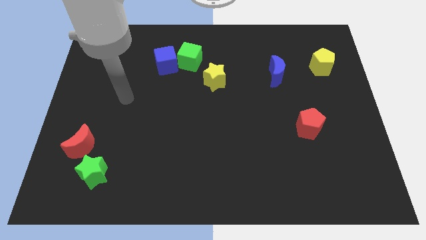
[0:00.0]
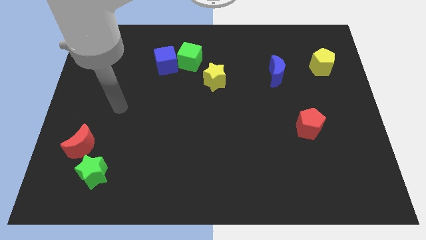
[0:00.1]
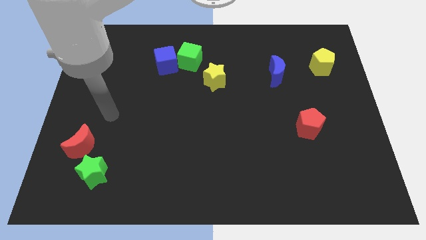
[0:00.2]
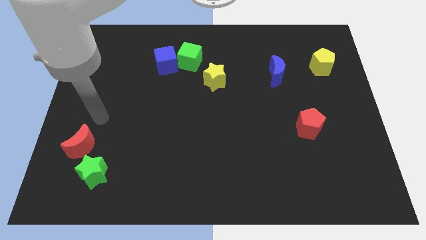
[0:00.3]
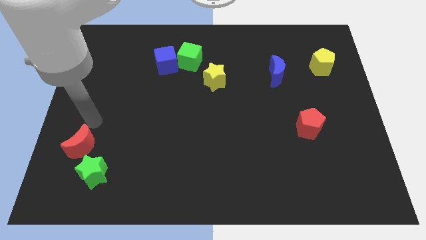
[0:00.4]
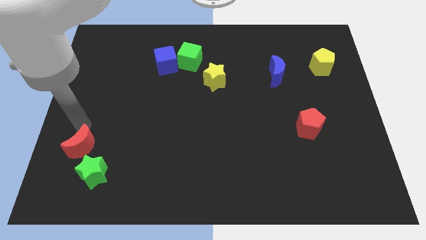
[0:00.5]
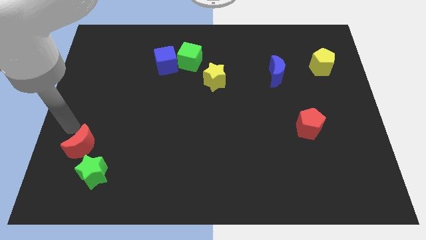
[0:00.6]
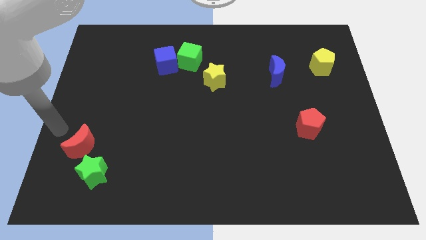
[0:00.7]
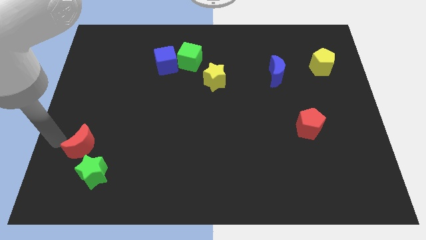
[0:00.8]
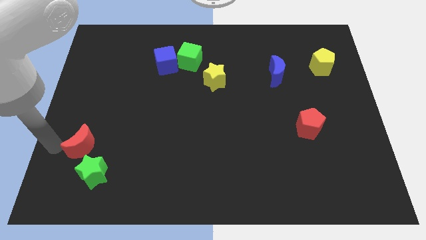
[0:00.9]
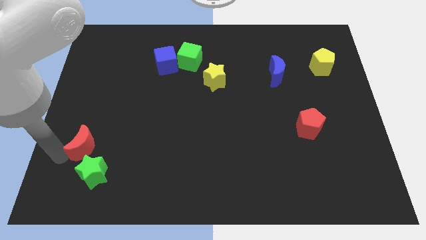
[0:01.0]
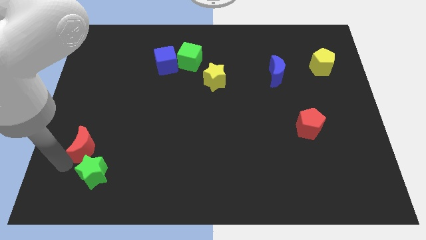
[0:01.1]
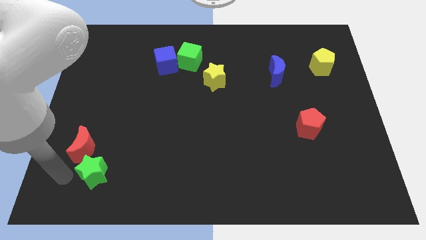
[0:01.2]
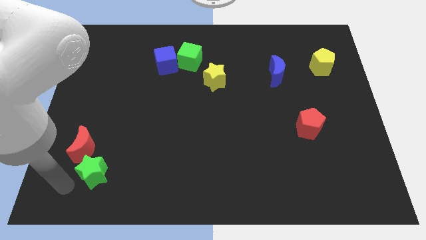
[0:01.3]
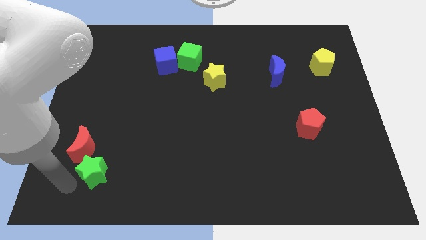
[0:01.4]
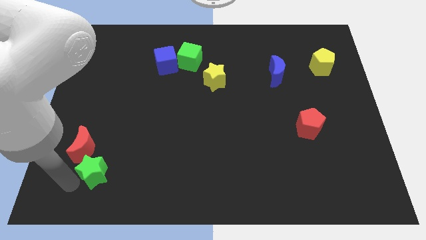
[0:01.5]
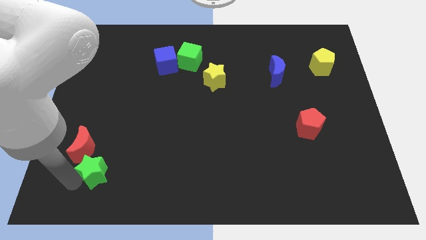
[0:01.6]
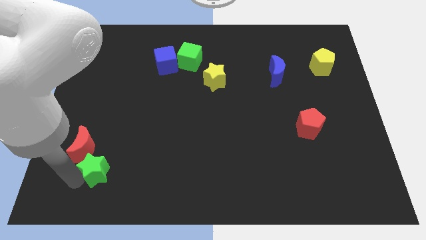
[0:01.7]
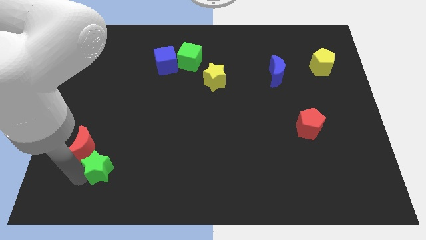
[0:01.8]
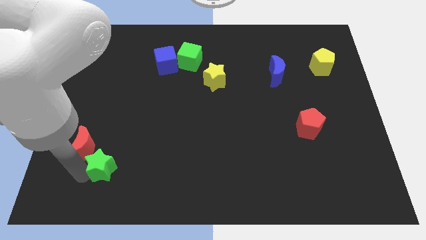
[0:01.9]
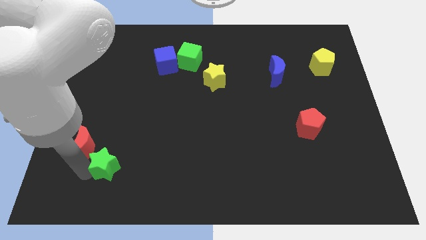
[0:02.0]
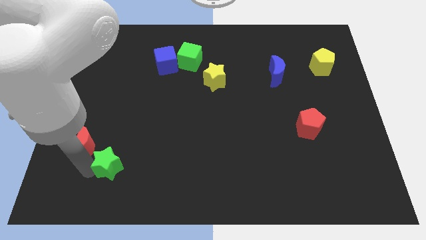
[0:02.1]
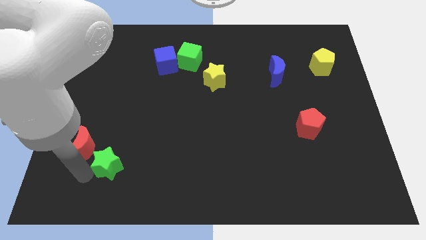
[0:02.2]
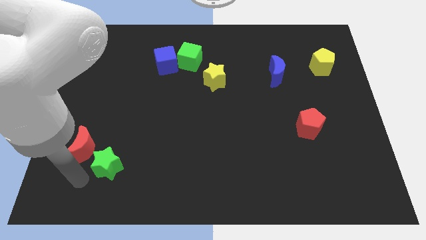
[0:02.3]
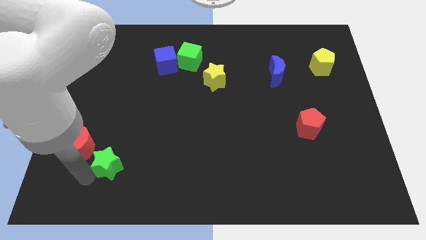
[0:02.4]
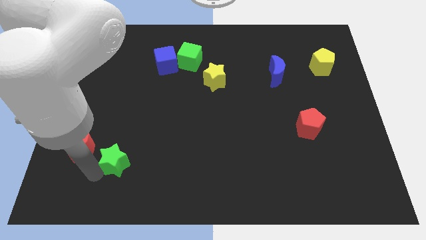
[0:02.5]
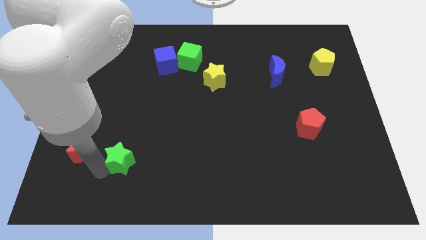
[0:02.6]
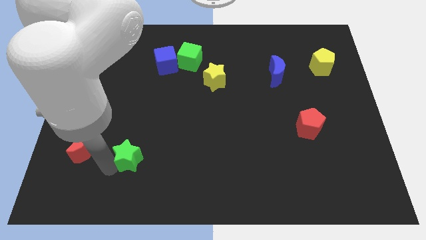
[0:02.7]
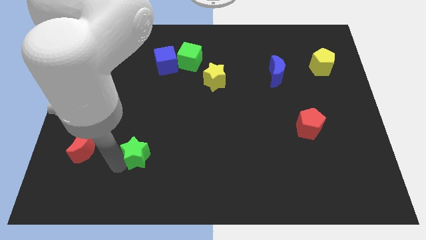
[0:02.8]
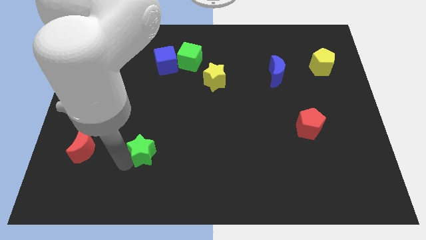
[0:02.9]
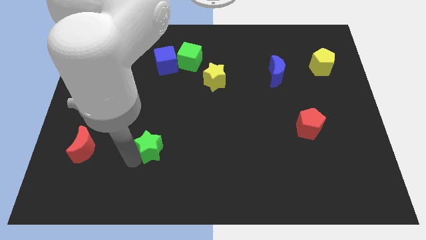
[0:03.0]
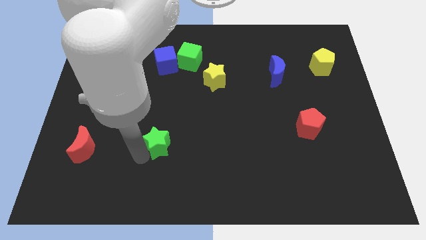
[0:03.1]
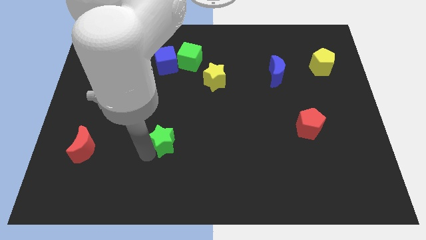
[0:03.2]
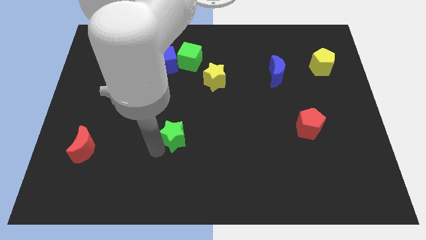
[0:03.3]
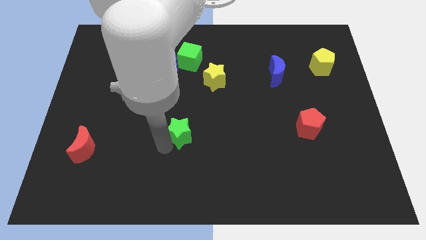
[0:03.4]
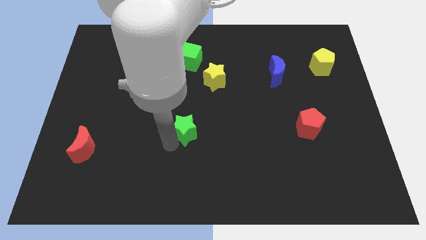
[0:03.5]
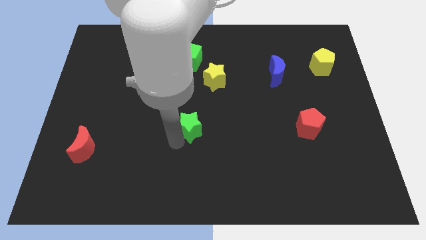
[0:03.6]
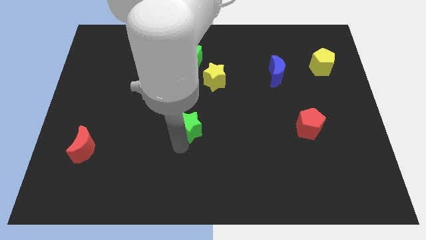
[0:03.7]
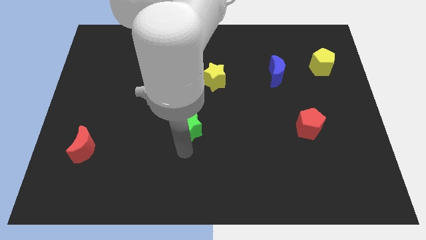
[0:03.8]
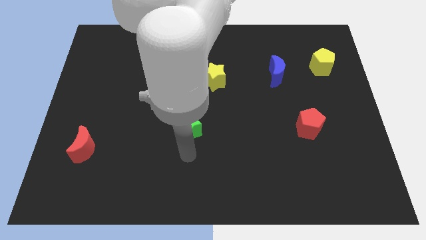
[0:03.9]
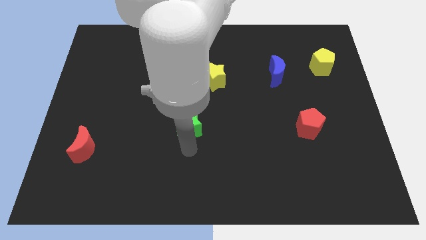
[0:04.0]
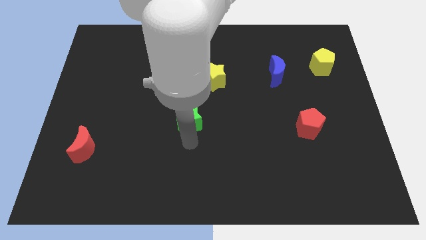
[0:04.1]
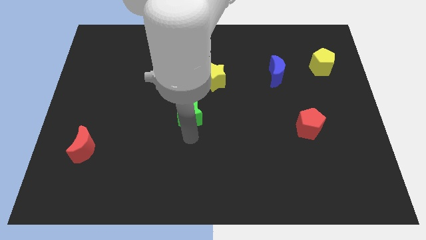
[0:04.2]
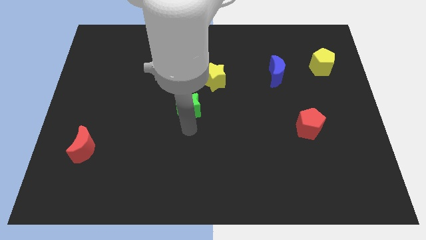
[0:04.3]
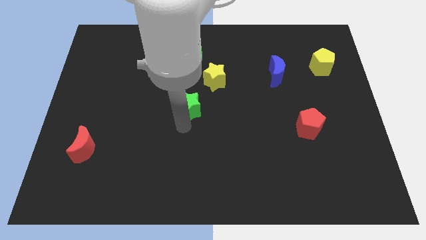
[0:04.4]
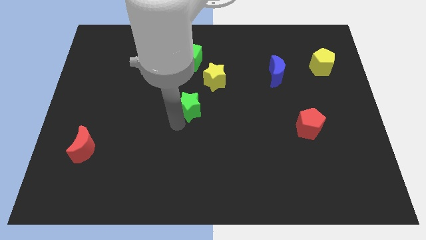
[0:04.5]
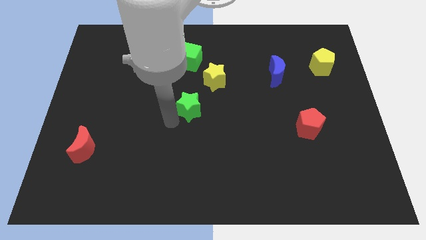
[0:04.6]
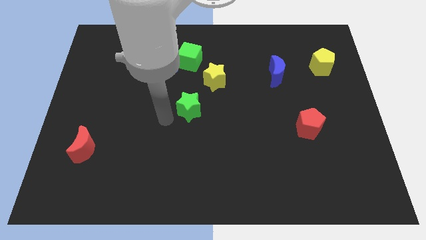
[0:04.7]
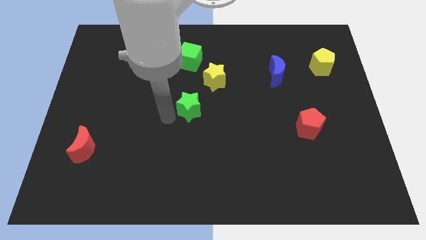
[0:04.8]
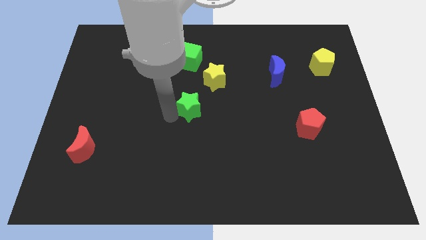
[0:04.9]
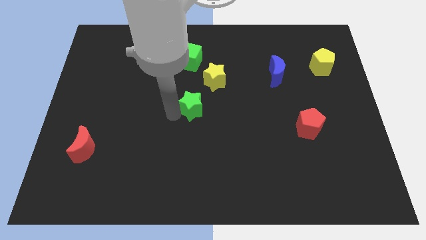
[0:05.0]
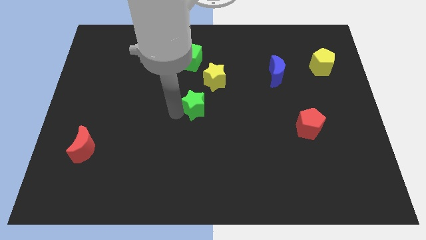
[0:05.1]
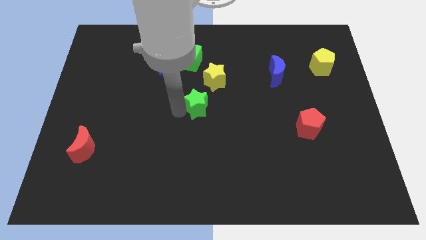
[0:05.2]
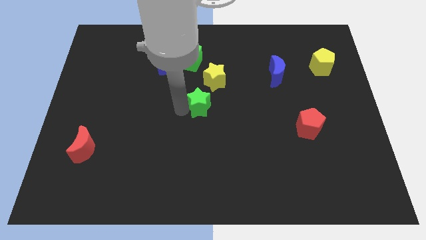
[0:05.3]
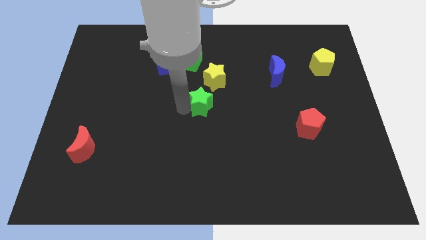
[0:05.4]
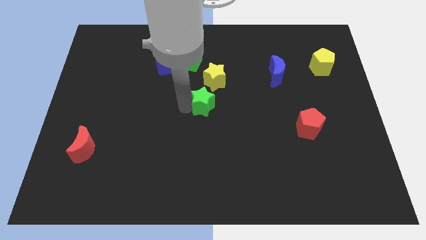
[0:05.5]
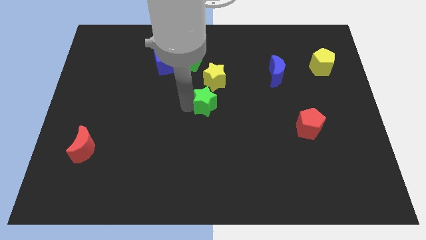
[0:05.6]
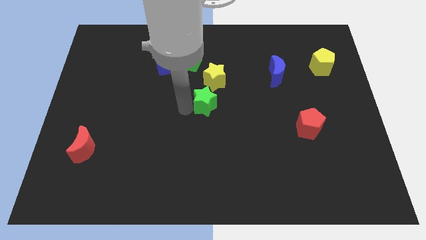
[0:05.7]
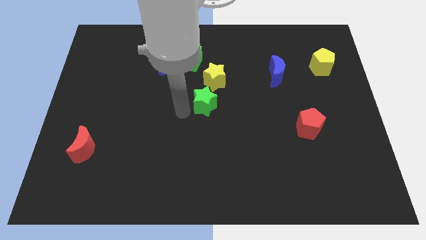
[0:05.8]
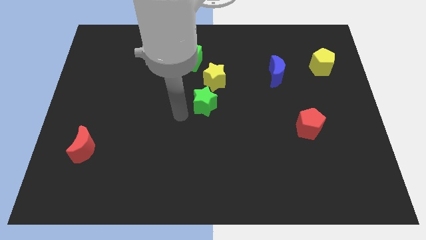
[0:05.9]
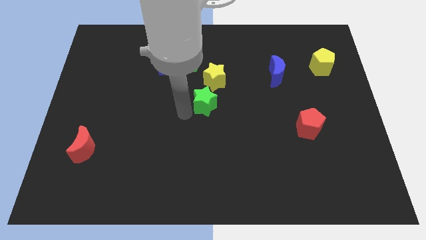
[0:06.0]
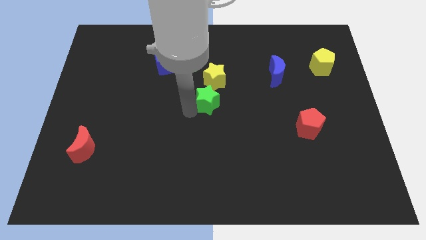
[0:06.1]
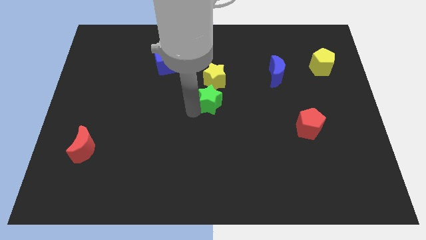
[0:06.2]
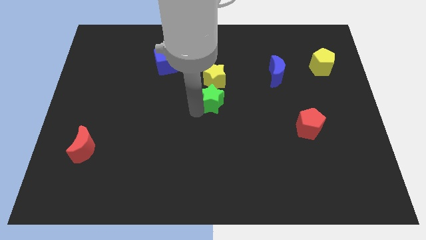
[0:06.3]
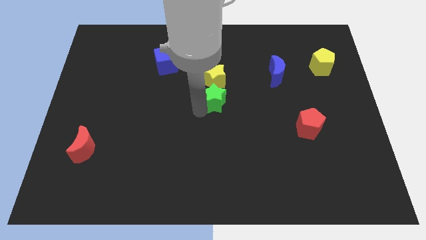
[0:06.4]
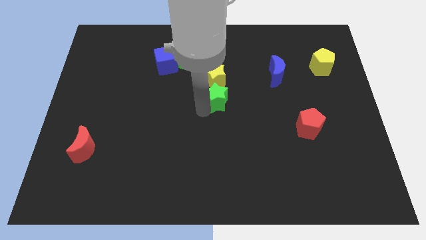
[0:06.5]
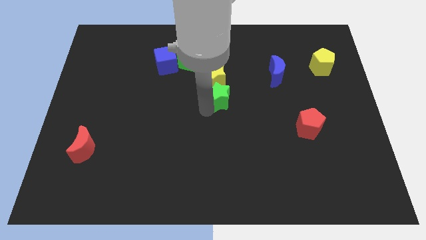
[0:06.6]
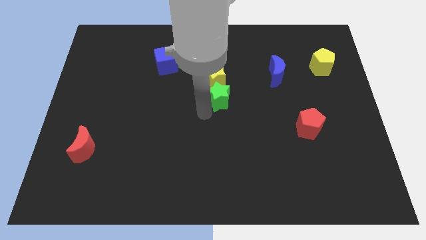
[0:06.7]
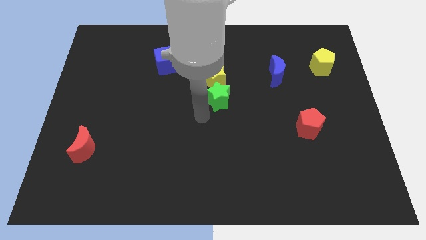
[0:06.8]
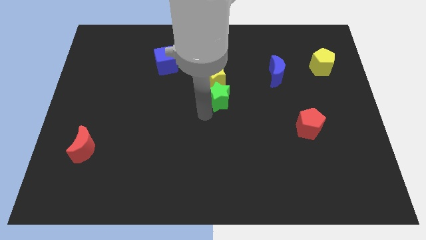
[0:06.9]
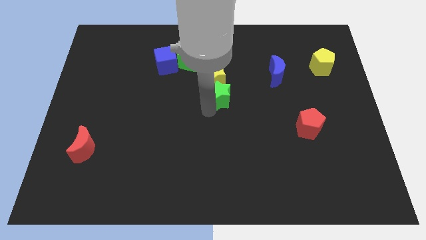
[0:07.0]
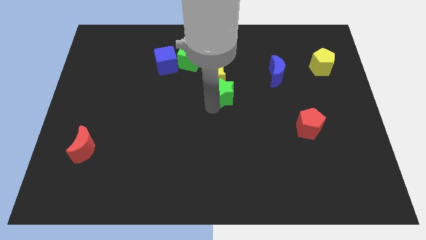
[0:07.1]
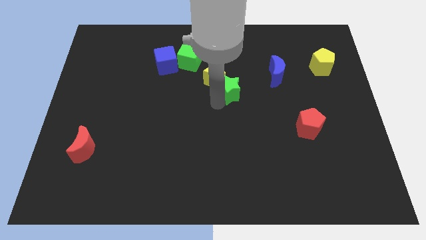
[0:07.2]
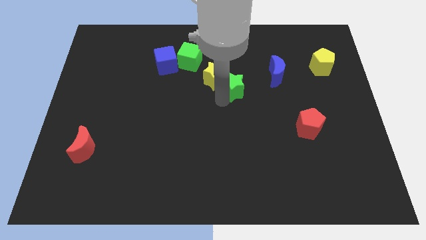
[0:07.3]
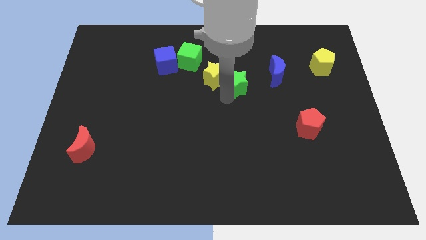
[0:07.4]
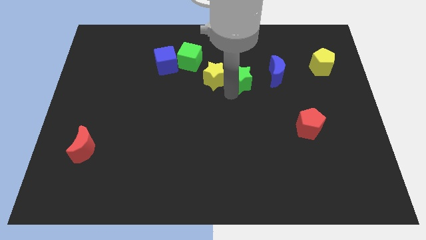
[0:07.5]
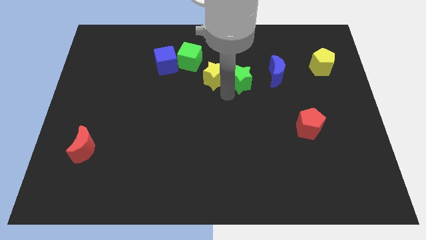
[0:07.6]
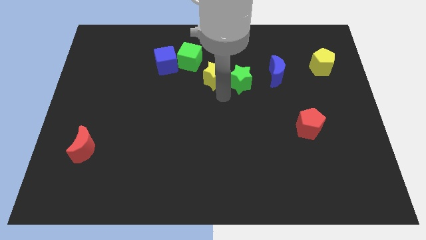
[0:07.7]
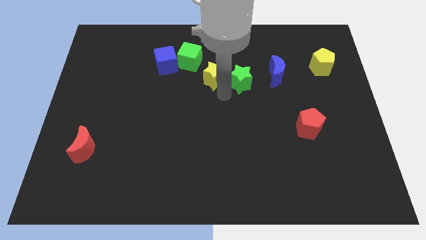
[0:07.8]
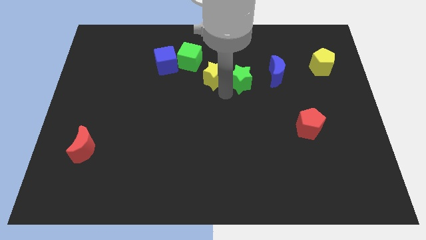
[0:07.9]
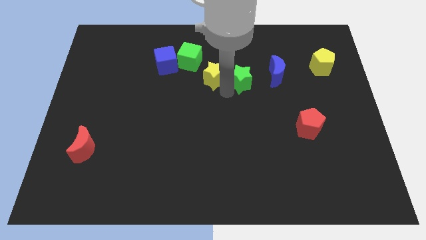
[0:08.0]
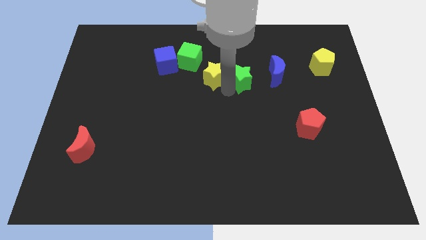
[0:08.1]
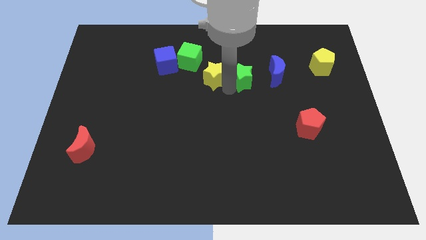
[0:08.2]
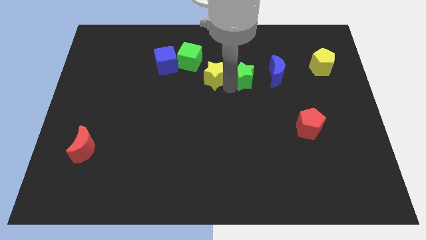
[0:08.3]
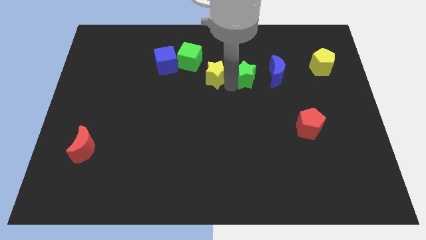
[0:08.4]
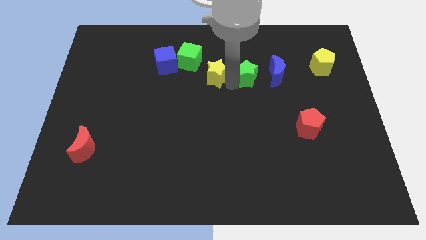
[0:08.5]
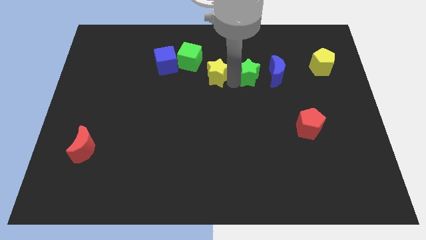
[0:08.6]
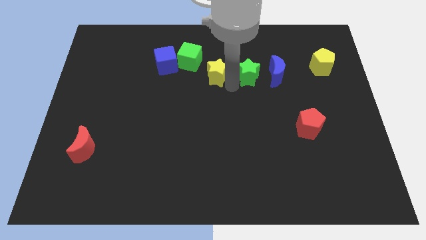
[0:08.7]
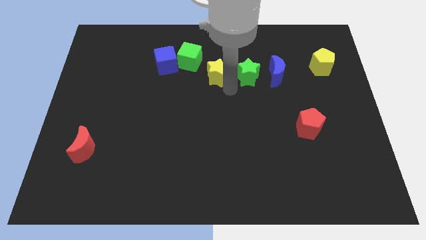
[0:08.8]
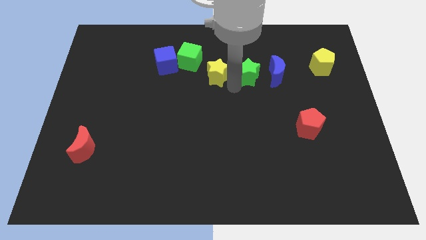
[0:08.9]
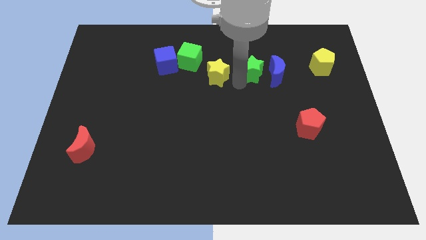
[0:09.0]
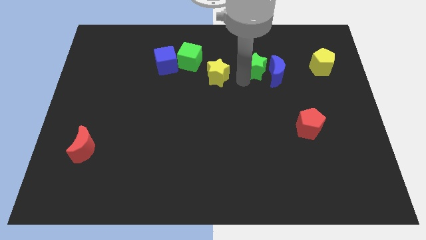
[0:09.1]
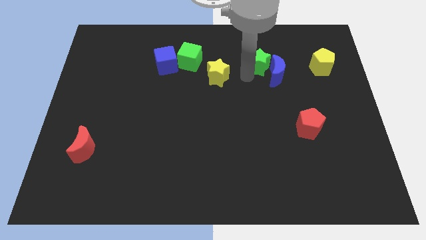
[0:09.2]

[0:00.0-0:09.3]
move the green star left of the yellow pentagon
